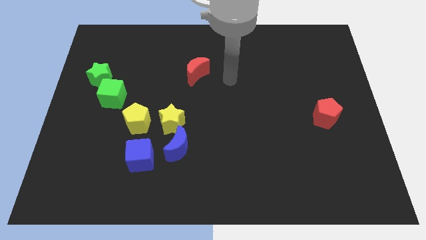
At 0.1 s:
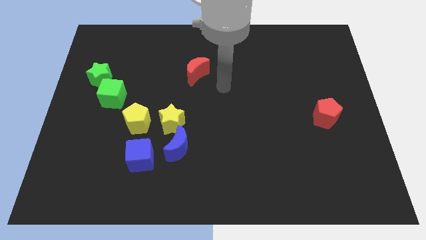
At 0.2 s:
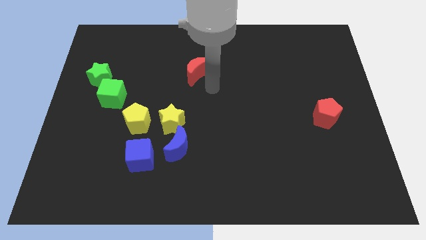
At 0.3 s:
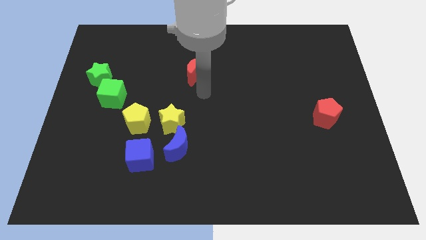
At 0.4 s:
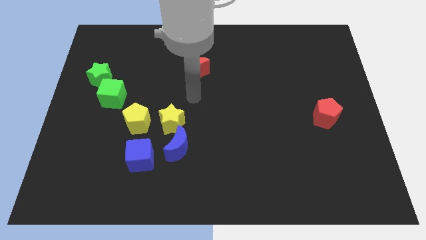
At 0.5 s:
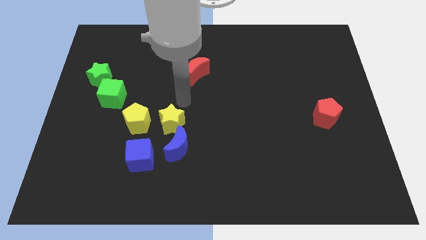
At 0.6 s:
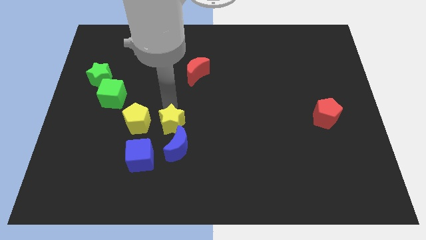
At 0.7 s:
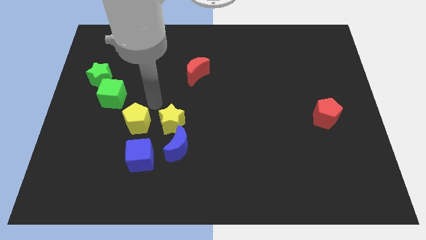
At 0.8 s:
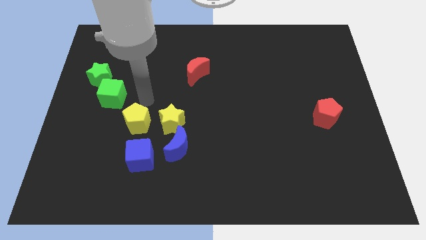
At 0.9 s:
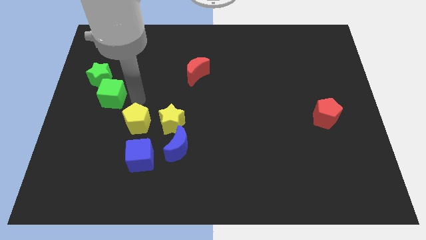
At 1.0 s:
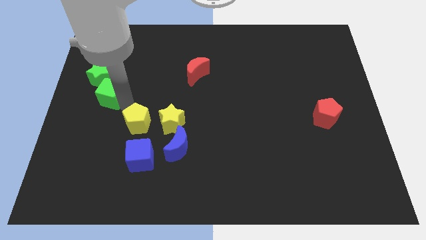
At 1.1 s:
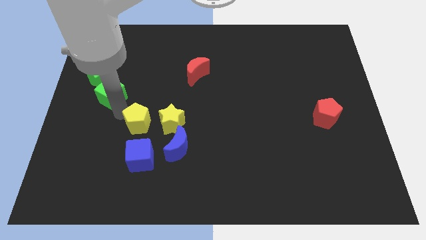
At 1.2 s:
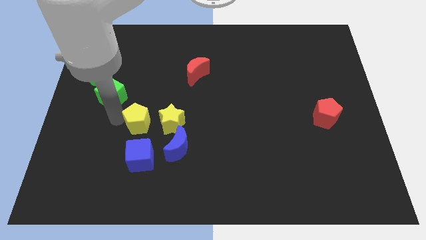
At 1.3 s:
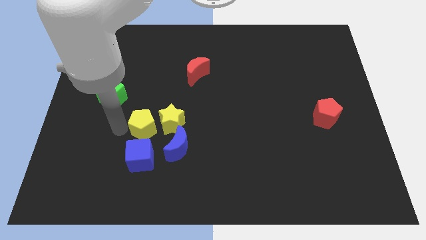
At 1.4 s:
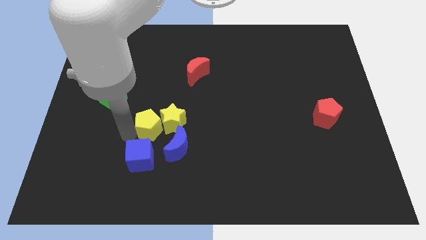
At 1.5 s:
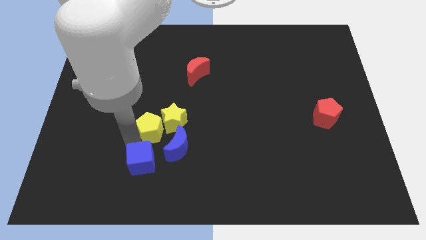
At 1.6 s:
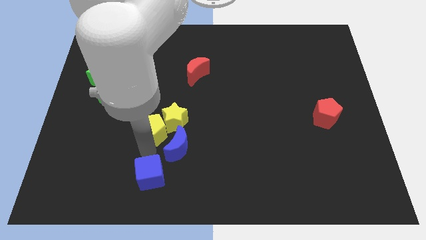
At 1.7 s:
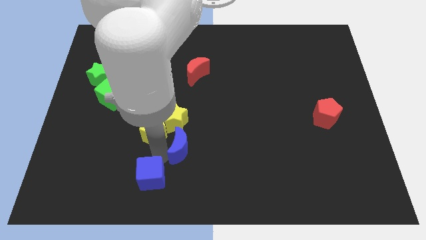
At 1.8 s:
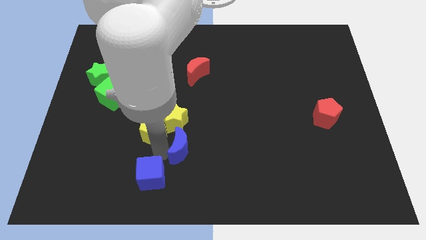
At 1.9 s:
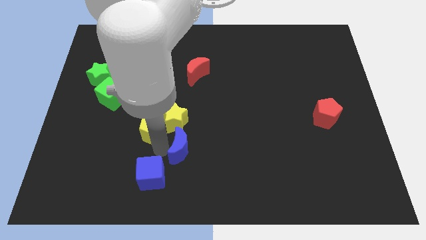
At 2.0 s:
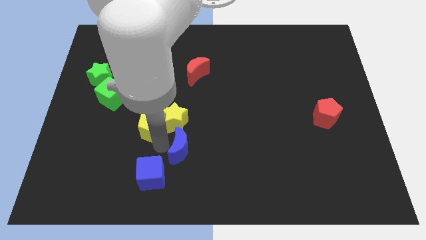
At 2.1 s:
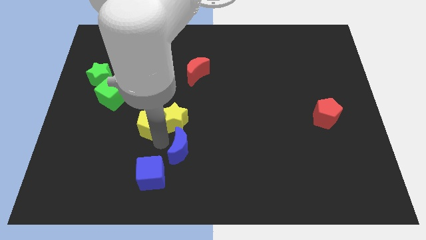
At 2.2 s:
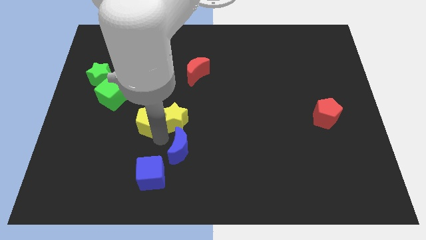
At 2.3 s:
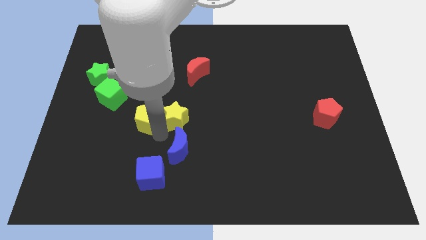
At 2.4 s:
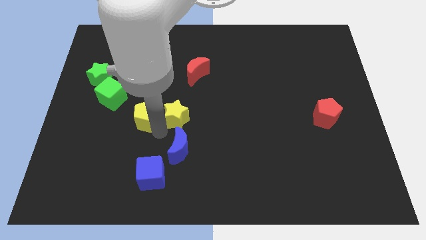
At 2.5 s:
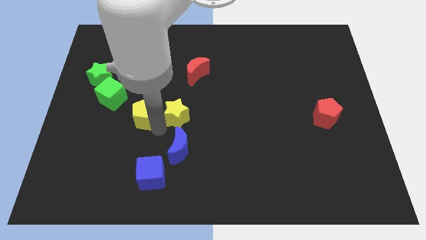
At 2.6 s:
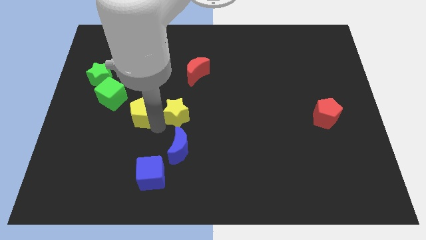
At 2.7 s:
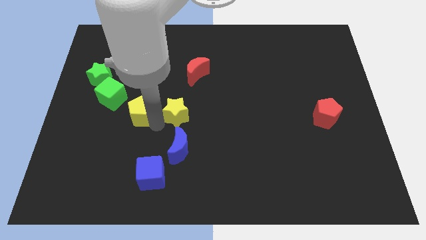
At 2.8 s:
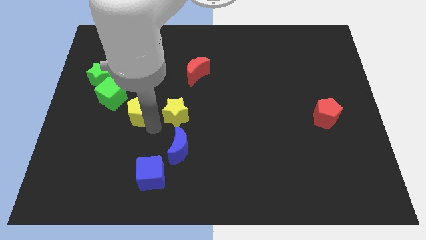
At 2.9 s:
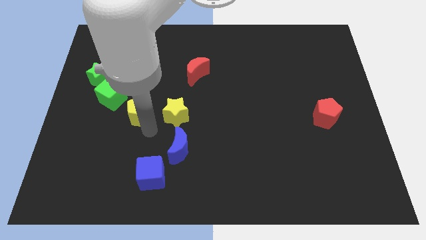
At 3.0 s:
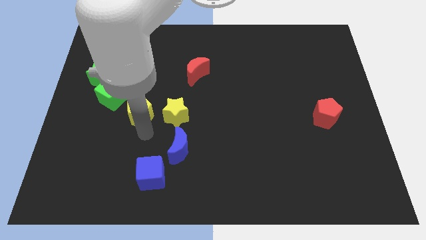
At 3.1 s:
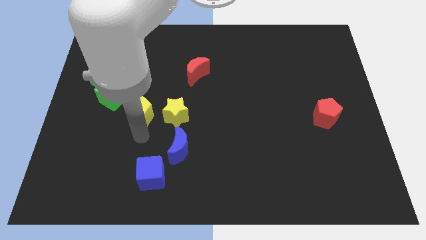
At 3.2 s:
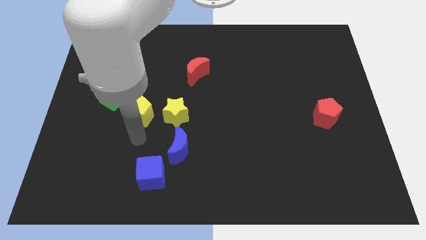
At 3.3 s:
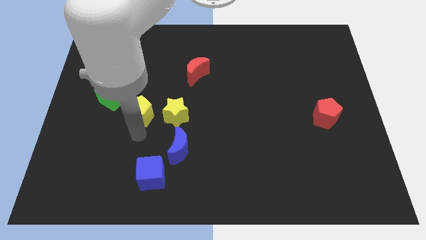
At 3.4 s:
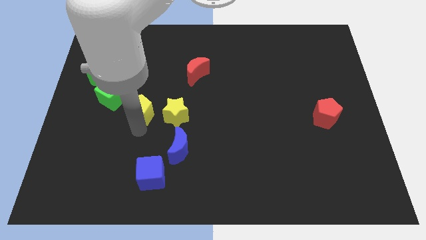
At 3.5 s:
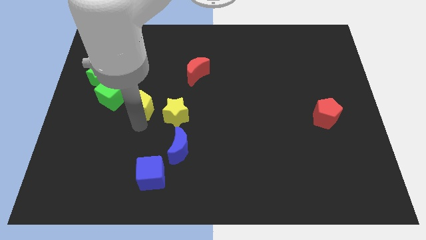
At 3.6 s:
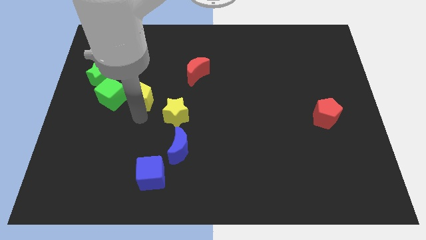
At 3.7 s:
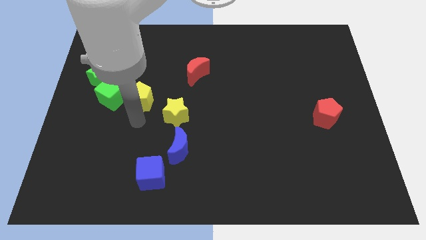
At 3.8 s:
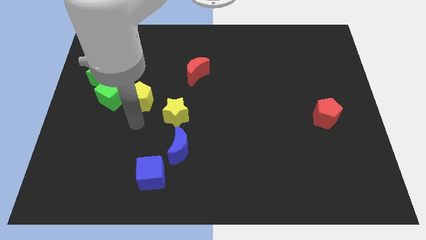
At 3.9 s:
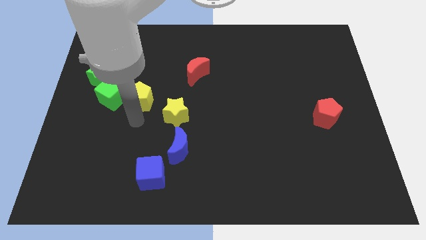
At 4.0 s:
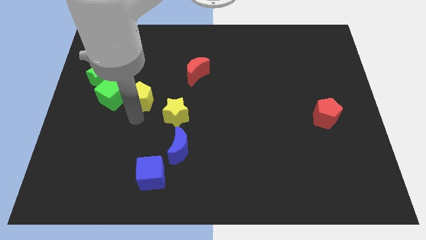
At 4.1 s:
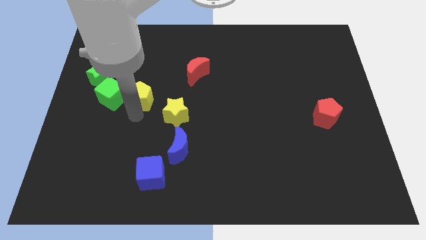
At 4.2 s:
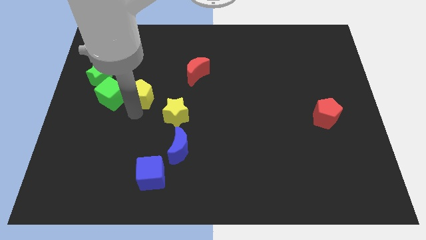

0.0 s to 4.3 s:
push the yellow pentagon a little bit upwards

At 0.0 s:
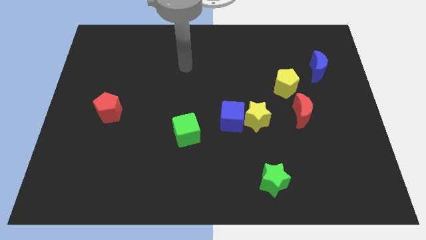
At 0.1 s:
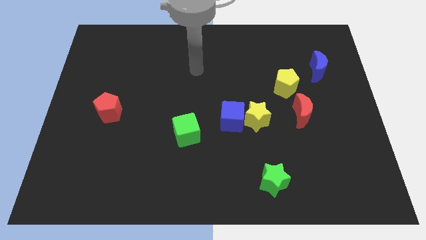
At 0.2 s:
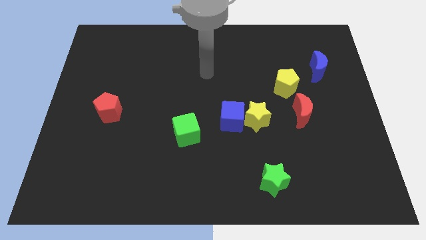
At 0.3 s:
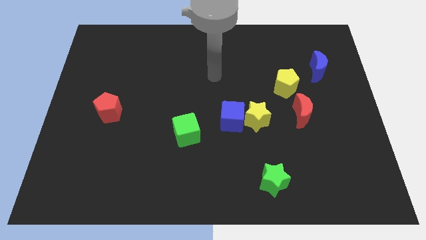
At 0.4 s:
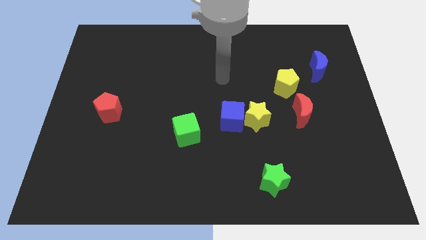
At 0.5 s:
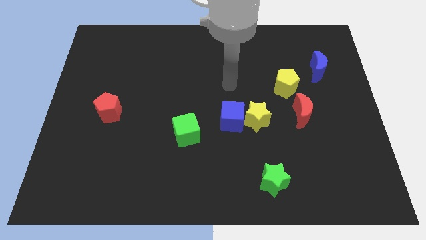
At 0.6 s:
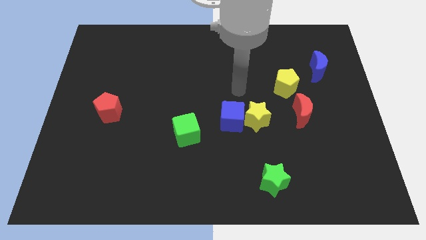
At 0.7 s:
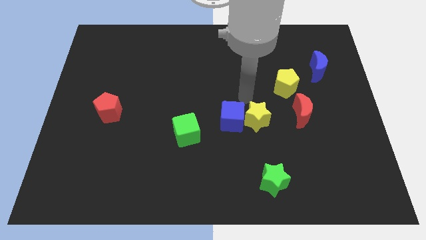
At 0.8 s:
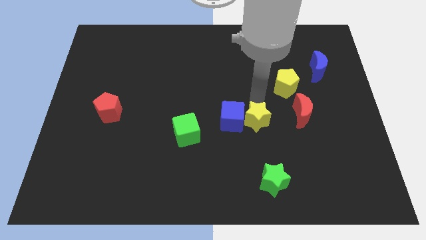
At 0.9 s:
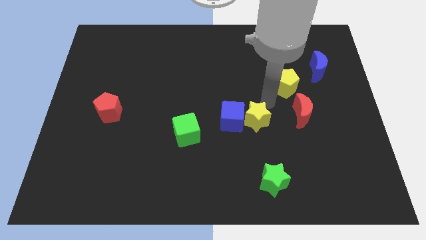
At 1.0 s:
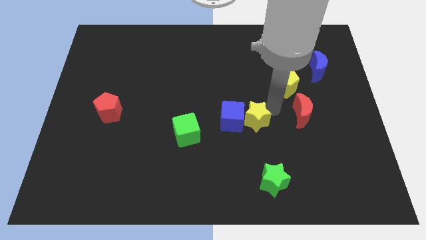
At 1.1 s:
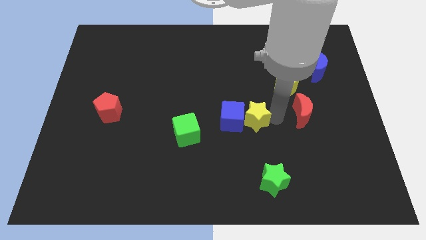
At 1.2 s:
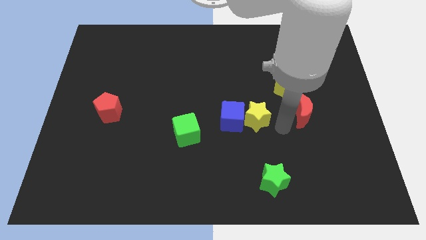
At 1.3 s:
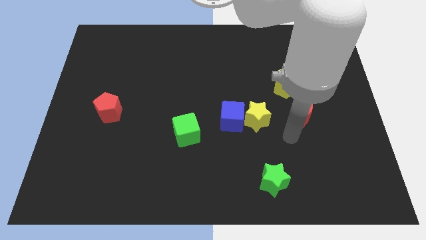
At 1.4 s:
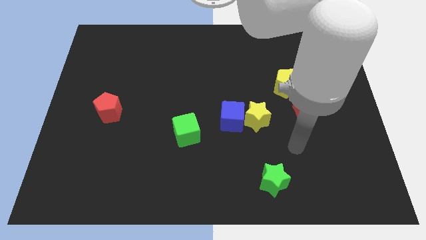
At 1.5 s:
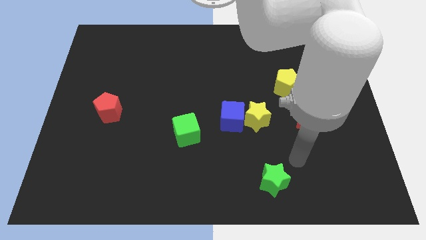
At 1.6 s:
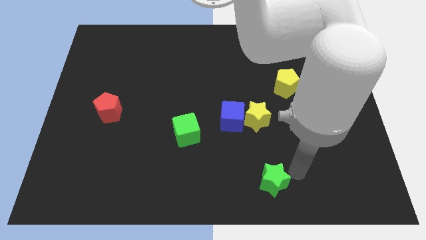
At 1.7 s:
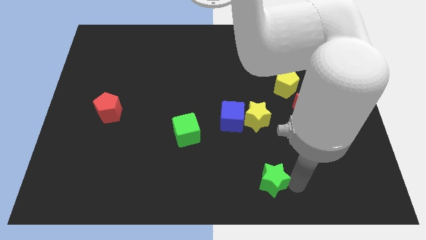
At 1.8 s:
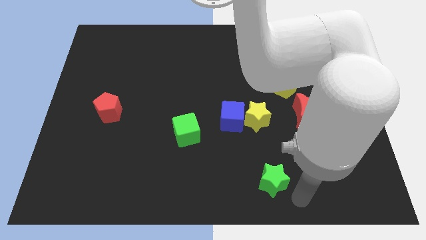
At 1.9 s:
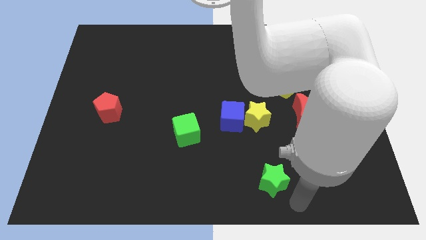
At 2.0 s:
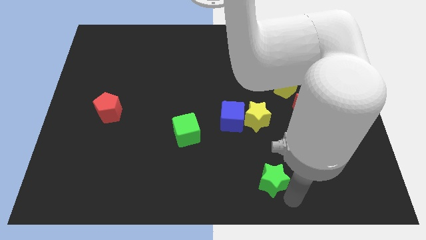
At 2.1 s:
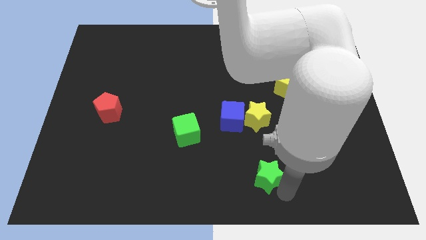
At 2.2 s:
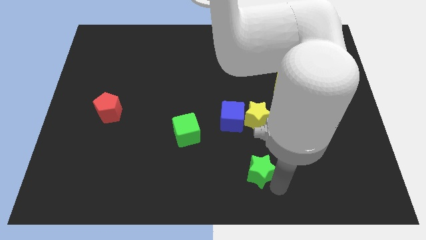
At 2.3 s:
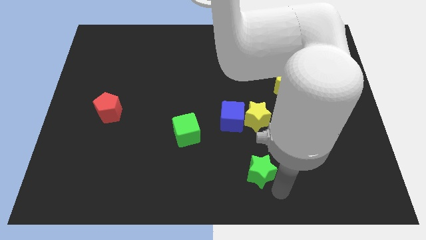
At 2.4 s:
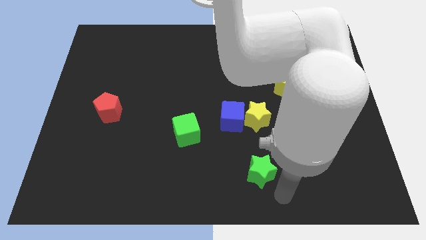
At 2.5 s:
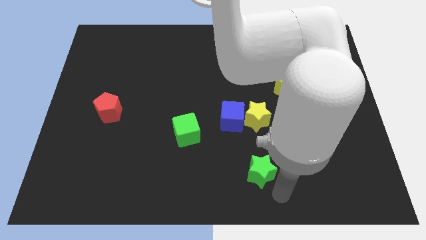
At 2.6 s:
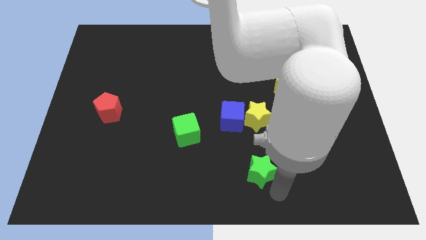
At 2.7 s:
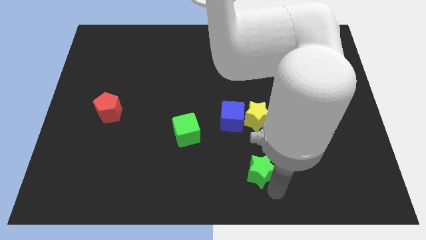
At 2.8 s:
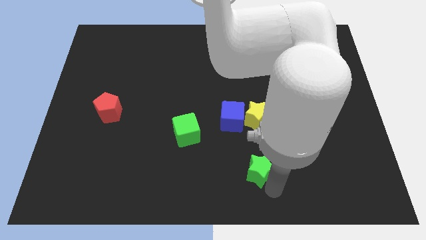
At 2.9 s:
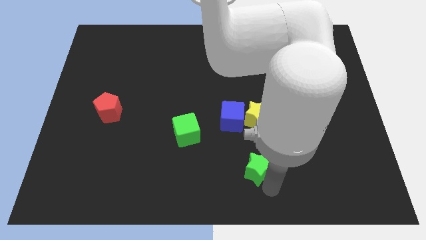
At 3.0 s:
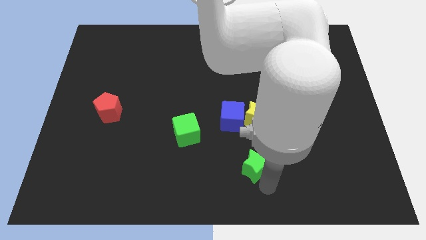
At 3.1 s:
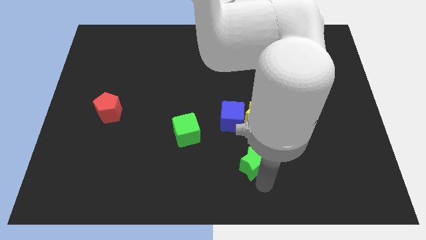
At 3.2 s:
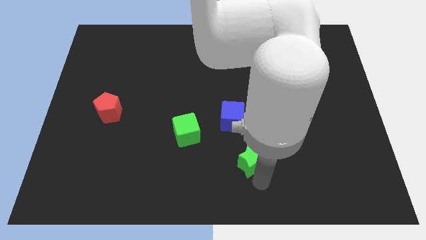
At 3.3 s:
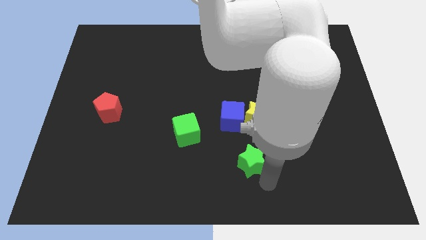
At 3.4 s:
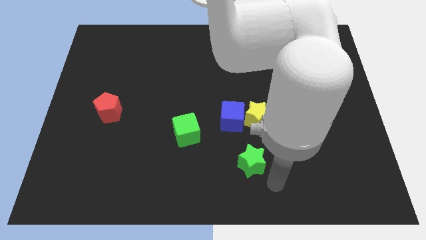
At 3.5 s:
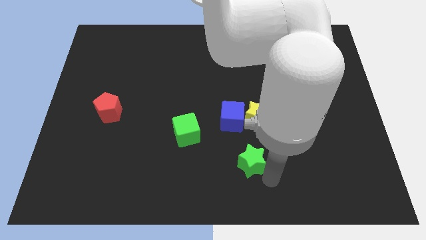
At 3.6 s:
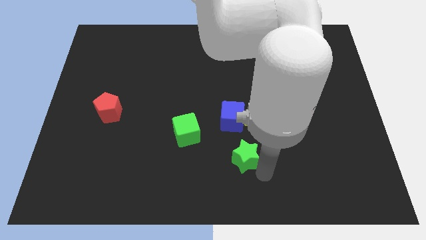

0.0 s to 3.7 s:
push the green star upwards and then left somewhat

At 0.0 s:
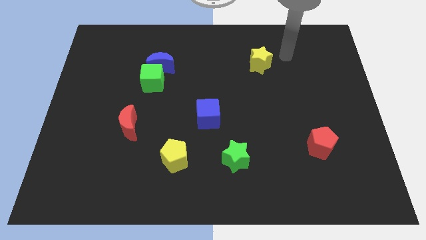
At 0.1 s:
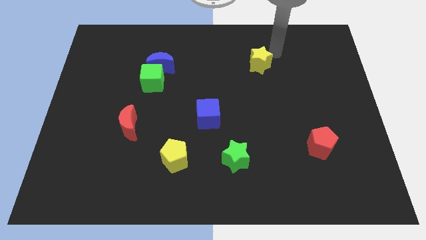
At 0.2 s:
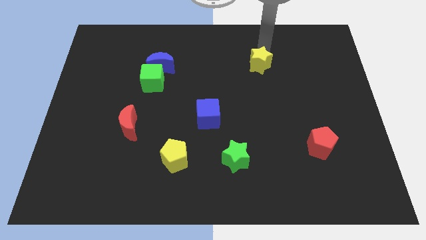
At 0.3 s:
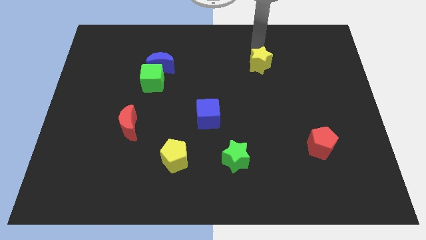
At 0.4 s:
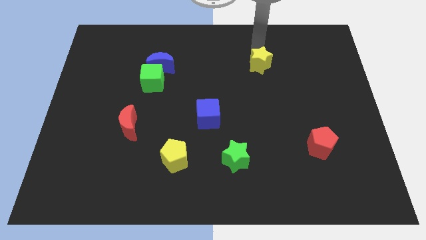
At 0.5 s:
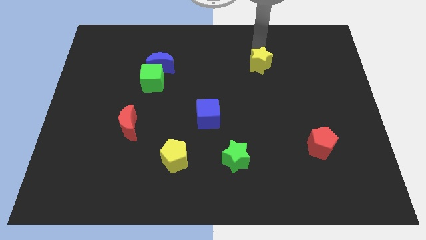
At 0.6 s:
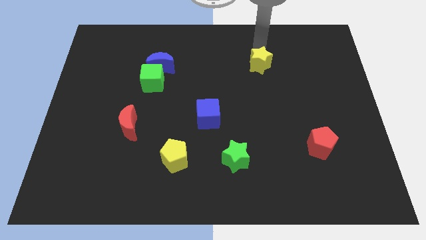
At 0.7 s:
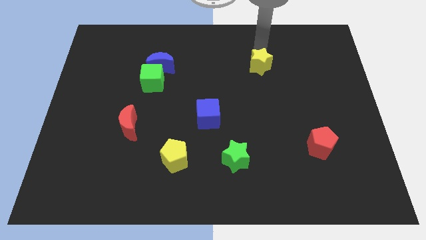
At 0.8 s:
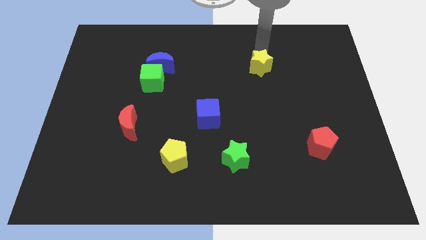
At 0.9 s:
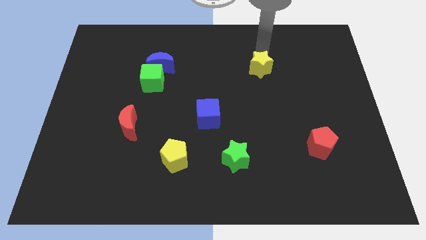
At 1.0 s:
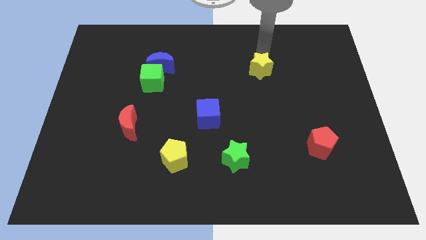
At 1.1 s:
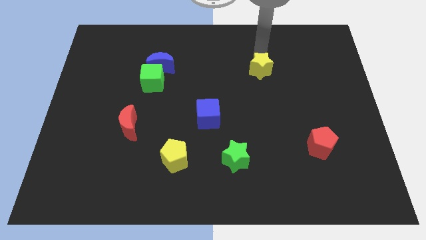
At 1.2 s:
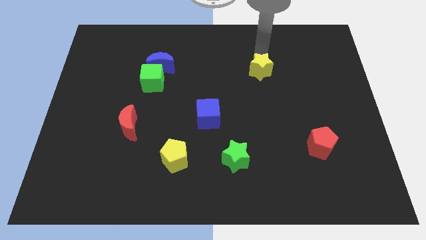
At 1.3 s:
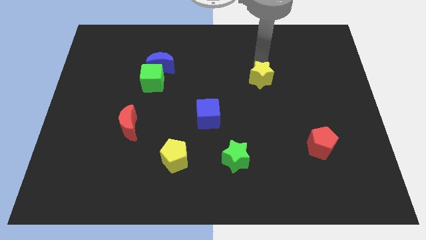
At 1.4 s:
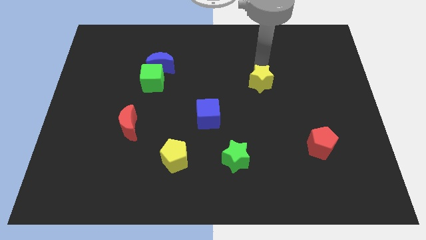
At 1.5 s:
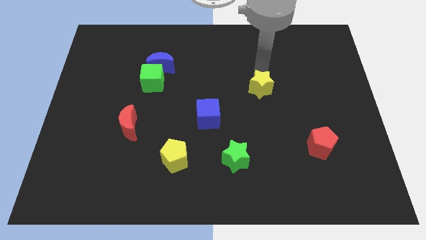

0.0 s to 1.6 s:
move the yellow star downwards a little bit
